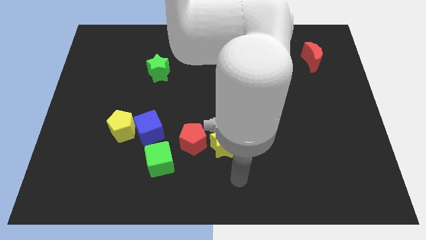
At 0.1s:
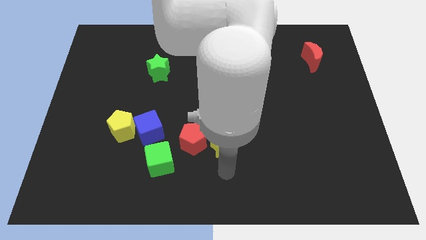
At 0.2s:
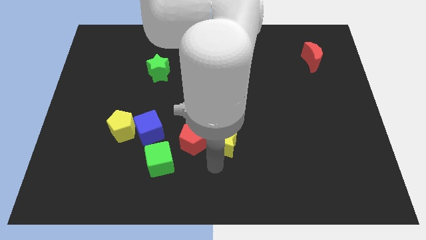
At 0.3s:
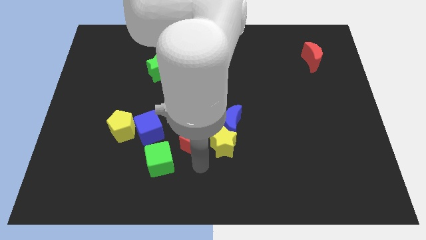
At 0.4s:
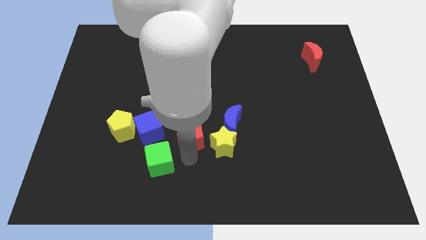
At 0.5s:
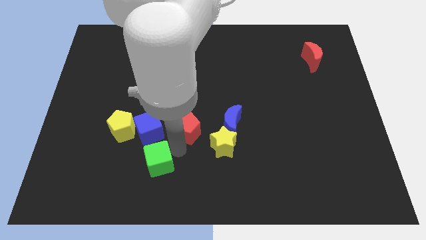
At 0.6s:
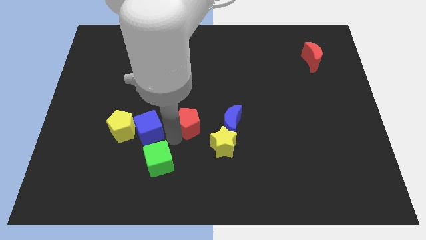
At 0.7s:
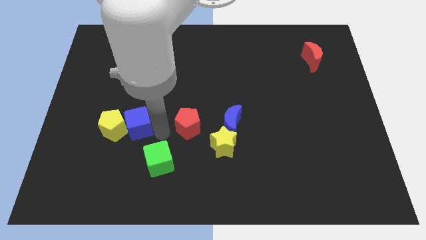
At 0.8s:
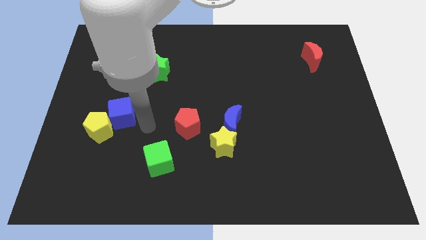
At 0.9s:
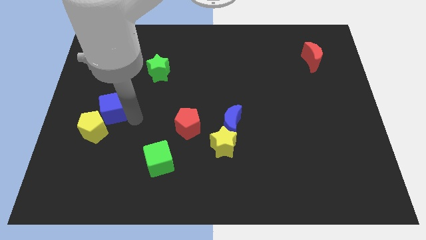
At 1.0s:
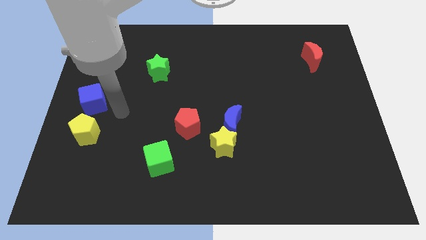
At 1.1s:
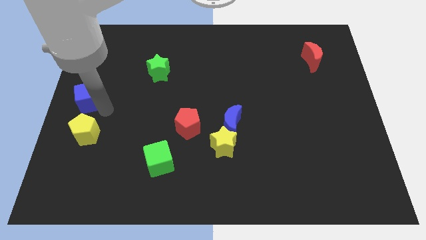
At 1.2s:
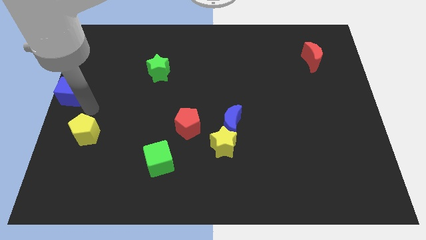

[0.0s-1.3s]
pull the yellow pentagon apart from the blue cube

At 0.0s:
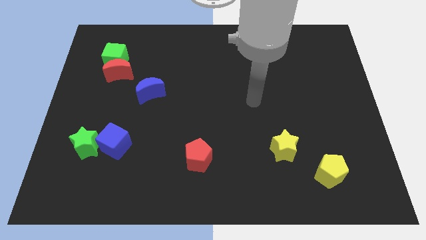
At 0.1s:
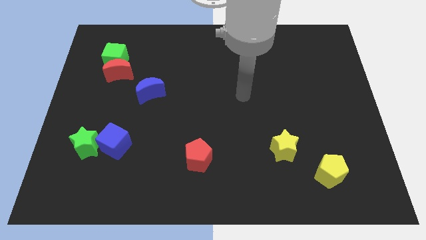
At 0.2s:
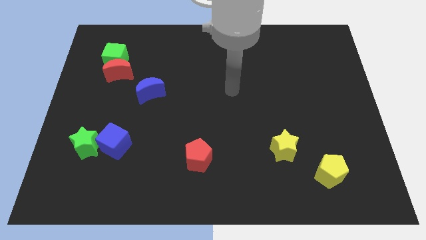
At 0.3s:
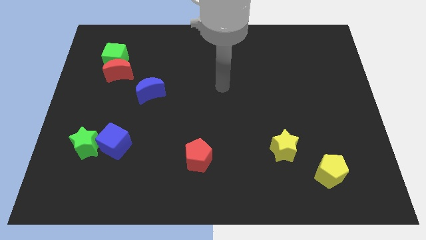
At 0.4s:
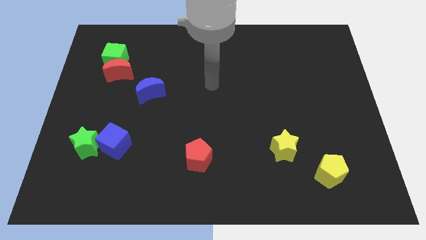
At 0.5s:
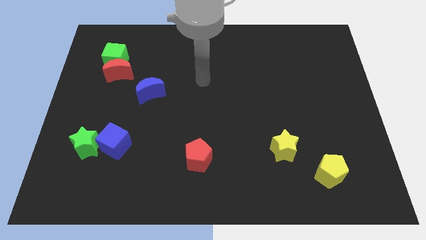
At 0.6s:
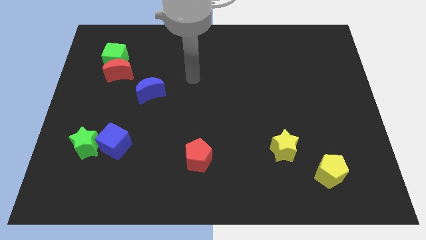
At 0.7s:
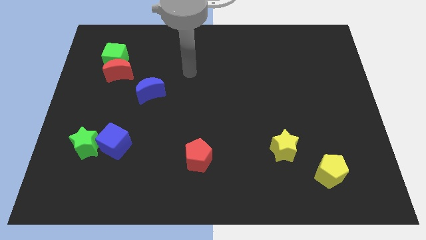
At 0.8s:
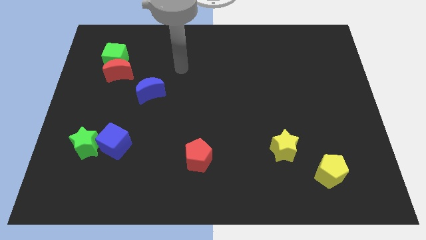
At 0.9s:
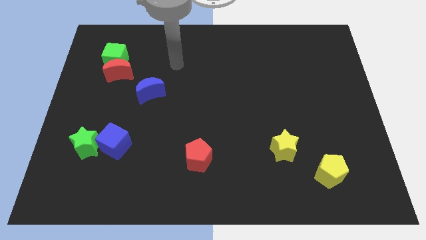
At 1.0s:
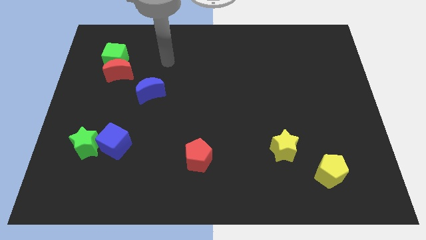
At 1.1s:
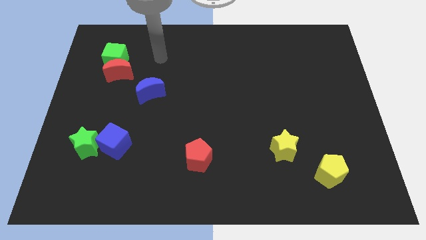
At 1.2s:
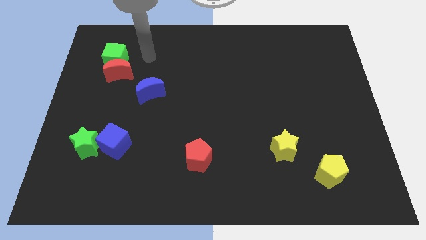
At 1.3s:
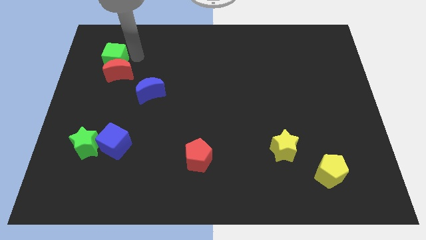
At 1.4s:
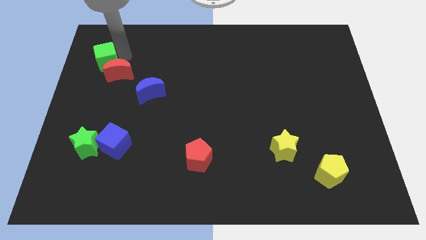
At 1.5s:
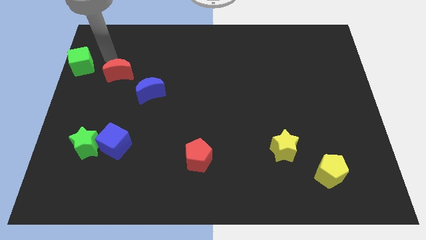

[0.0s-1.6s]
pull the red moon apart from the green cube

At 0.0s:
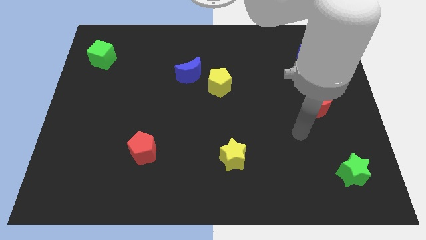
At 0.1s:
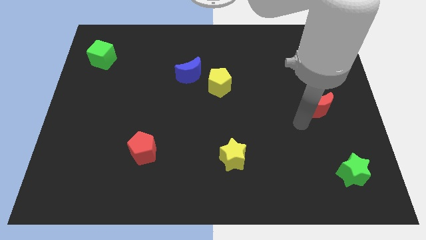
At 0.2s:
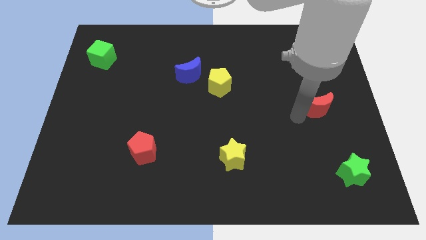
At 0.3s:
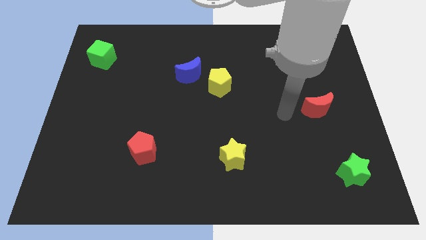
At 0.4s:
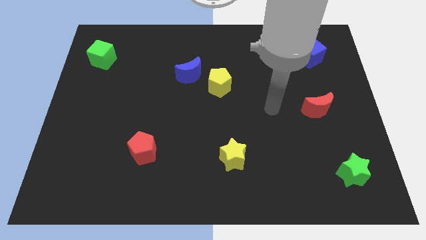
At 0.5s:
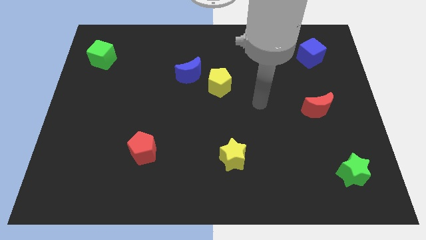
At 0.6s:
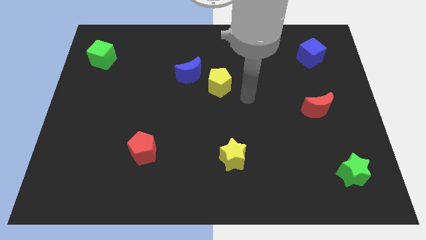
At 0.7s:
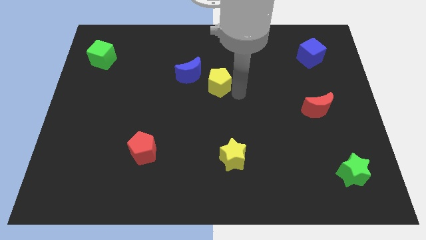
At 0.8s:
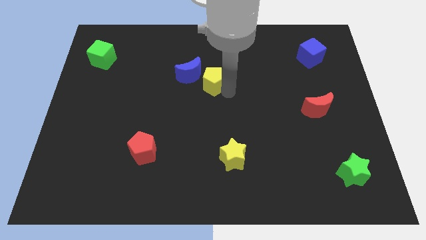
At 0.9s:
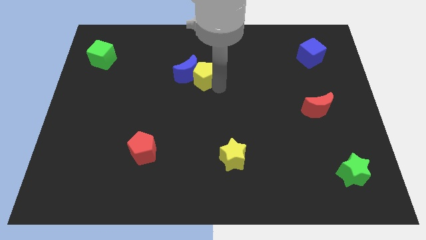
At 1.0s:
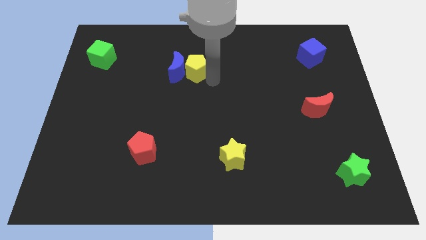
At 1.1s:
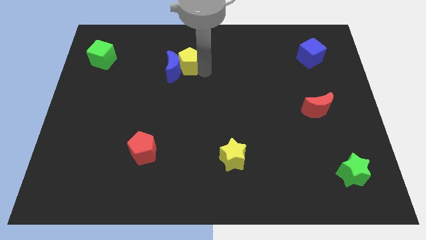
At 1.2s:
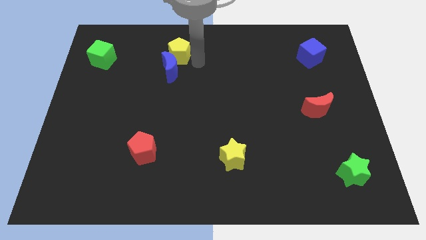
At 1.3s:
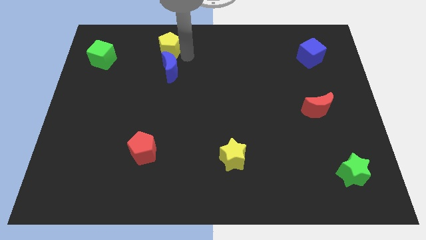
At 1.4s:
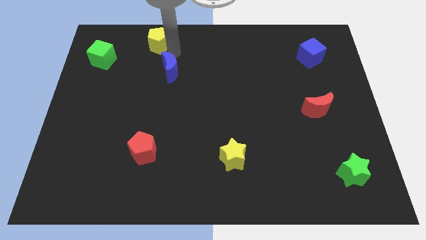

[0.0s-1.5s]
pull the blue moon apart from the yellow pentagon

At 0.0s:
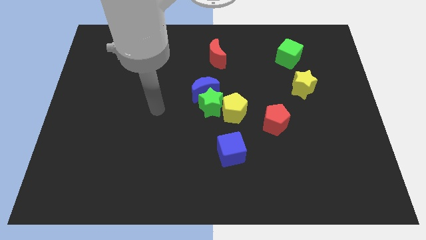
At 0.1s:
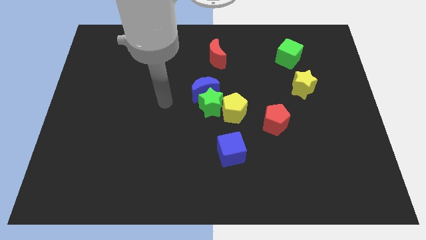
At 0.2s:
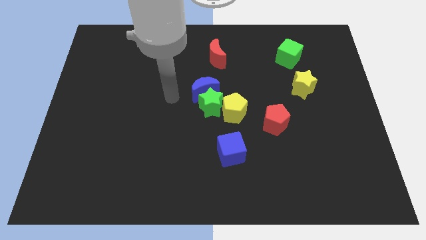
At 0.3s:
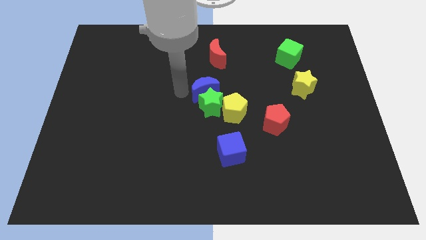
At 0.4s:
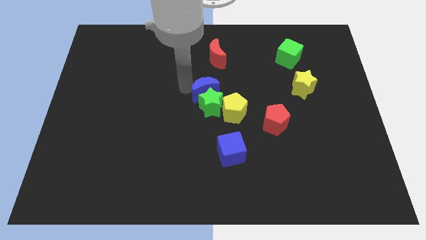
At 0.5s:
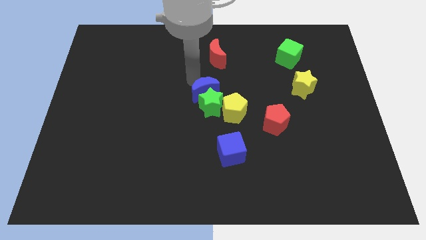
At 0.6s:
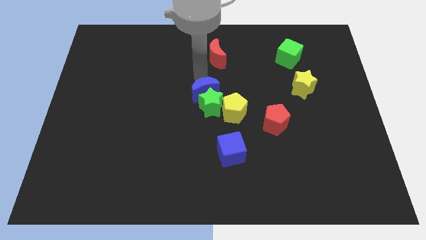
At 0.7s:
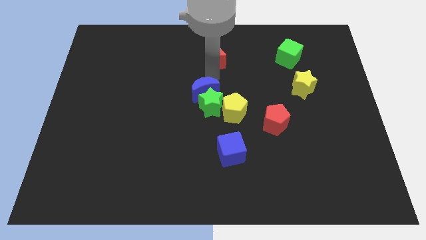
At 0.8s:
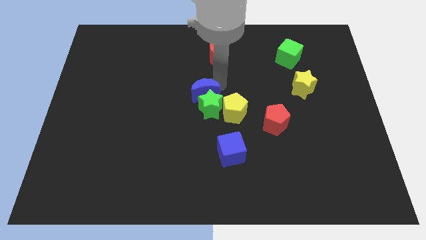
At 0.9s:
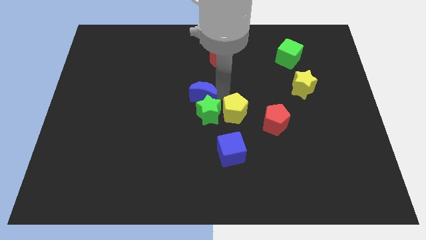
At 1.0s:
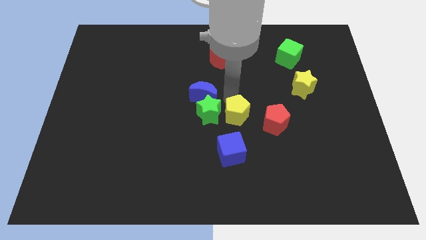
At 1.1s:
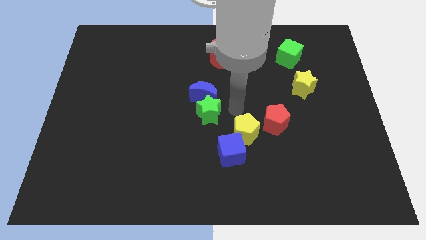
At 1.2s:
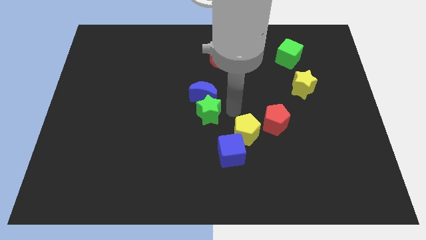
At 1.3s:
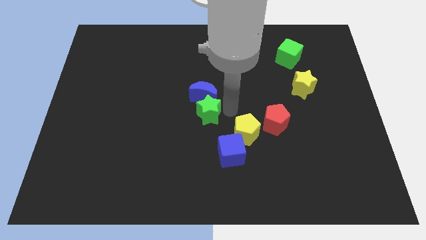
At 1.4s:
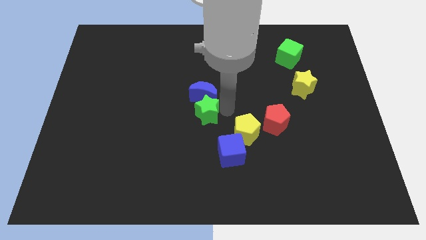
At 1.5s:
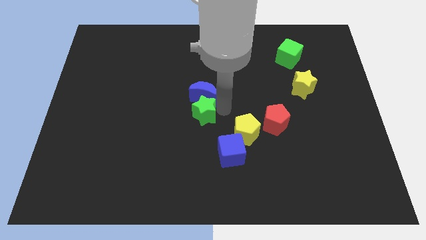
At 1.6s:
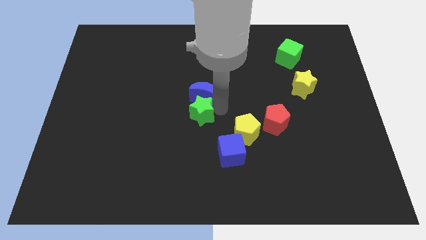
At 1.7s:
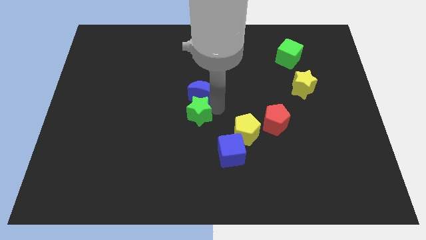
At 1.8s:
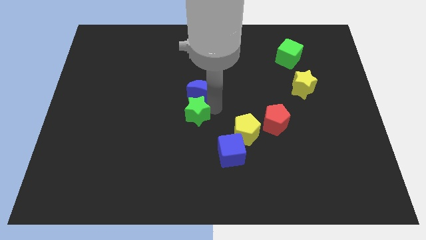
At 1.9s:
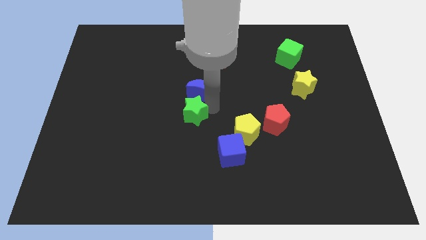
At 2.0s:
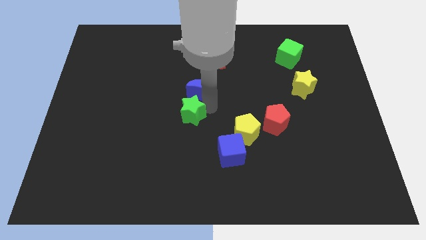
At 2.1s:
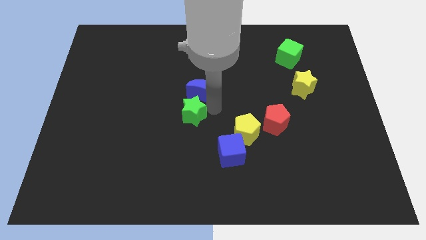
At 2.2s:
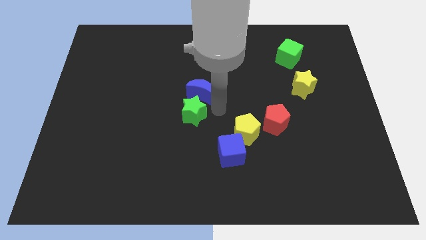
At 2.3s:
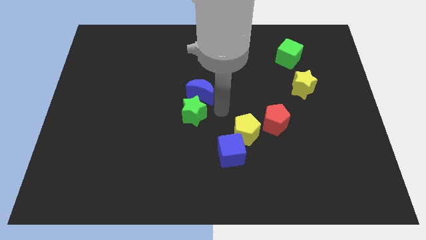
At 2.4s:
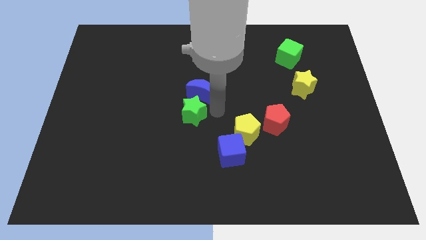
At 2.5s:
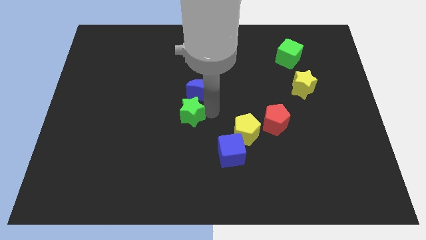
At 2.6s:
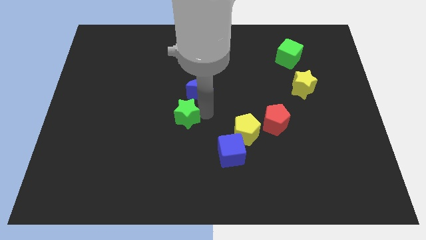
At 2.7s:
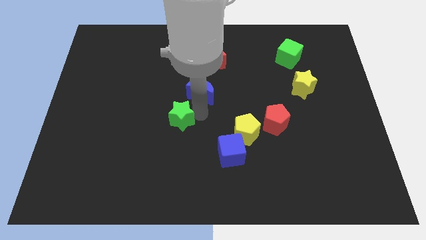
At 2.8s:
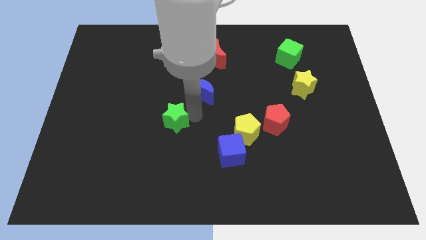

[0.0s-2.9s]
pull the green star apart from the blue moon and yellow pentagon

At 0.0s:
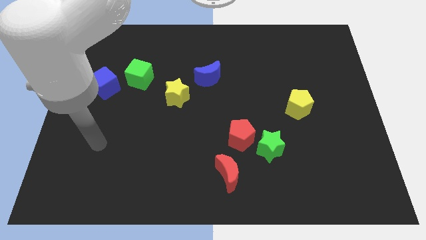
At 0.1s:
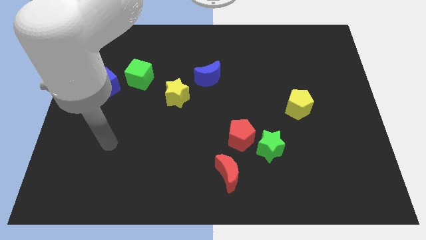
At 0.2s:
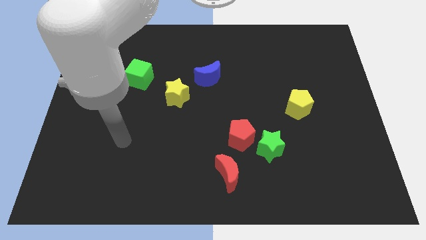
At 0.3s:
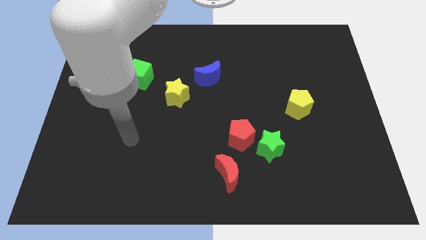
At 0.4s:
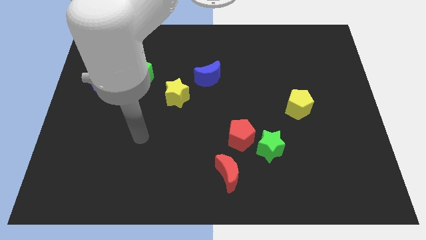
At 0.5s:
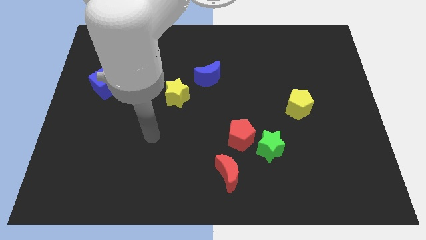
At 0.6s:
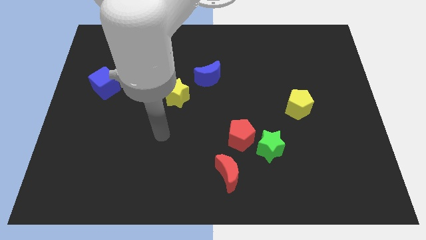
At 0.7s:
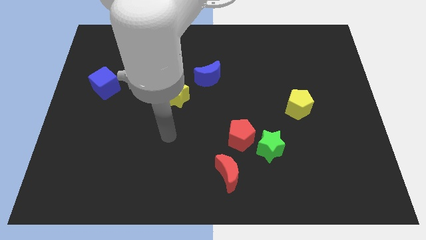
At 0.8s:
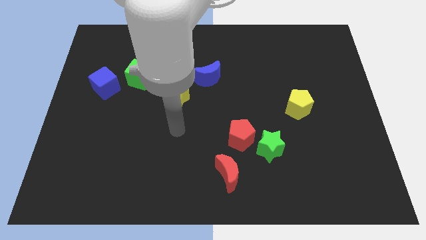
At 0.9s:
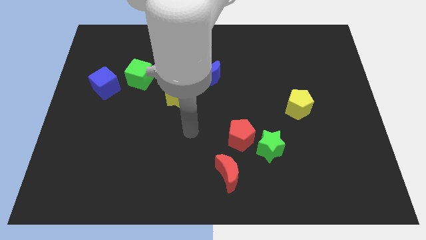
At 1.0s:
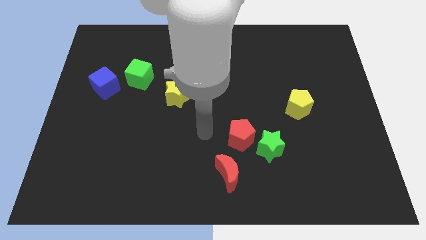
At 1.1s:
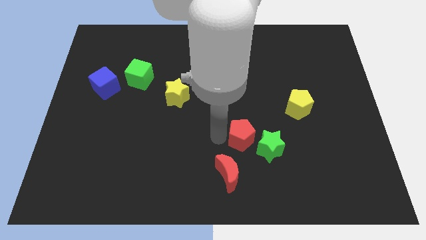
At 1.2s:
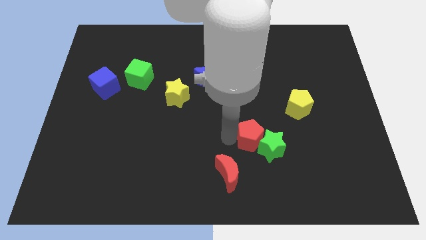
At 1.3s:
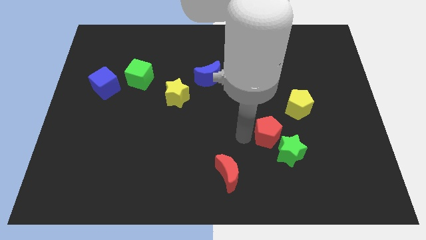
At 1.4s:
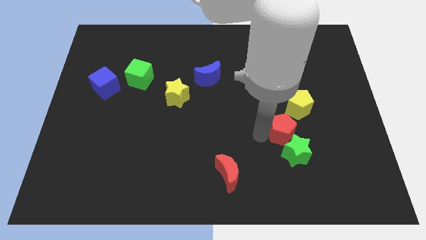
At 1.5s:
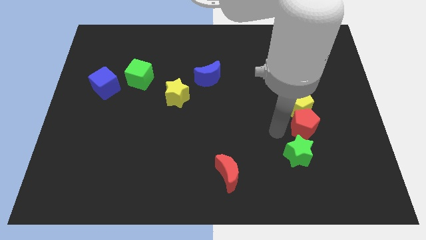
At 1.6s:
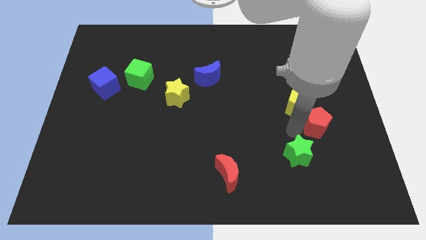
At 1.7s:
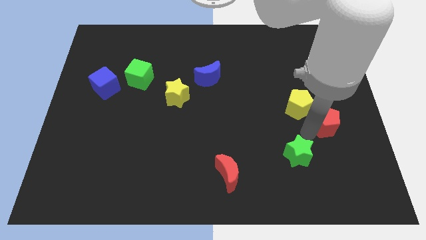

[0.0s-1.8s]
separate the green star from the red pentagon

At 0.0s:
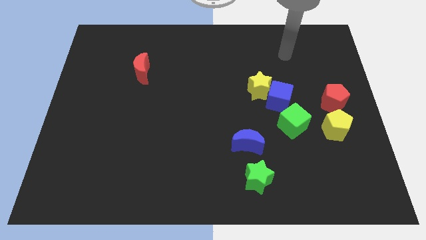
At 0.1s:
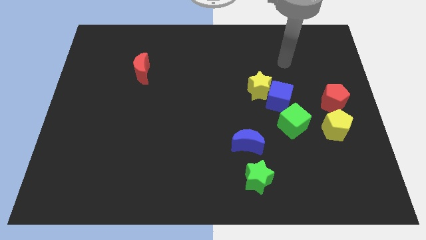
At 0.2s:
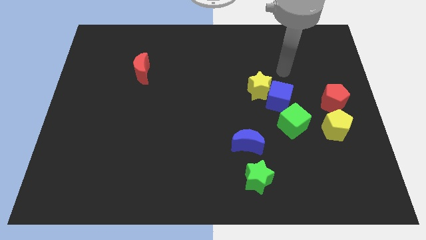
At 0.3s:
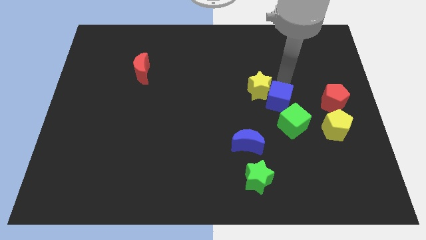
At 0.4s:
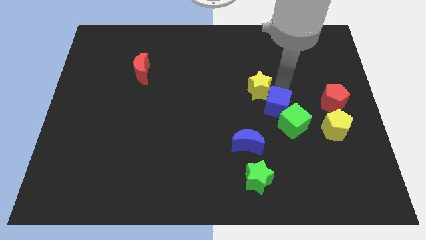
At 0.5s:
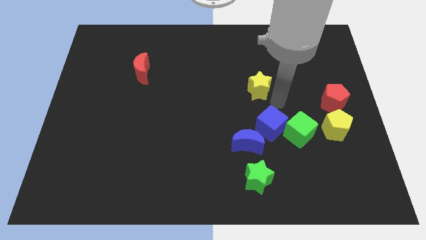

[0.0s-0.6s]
pull the yellow star apart from the blue cube
